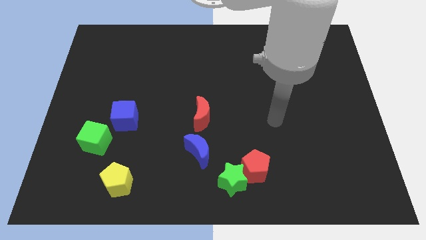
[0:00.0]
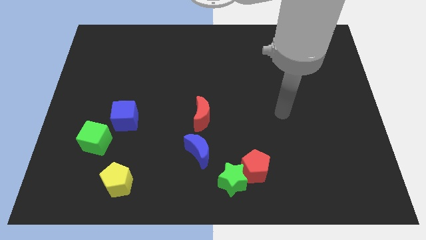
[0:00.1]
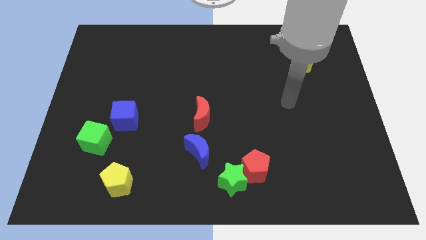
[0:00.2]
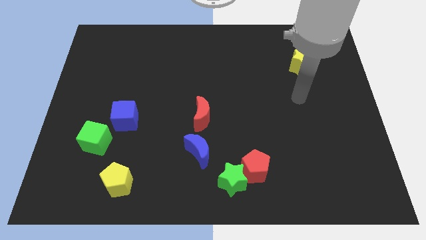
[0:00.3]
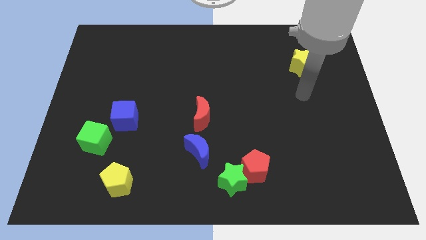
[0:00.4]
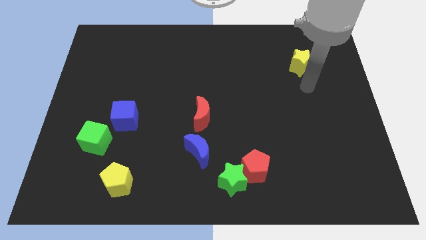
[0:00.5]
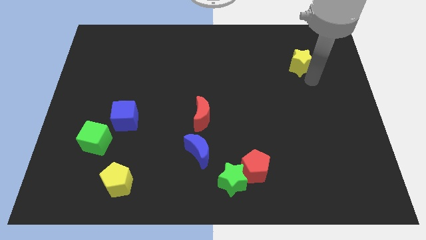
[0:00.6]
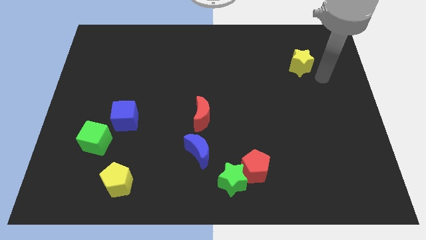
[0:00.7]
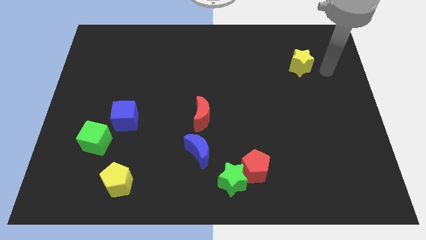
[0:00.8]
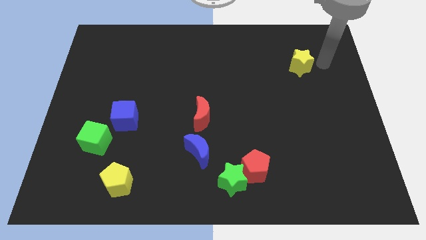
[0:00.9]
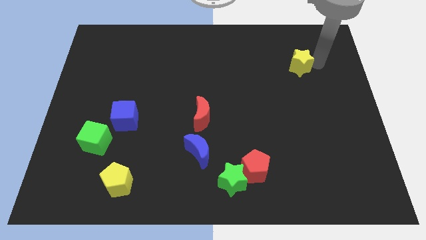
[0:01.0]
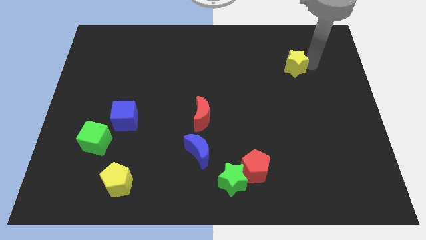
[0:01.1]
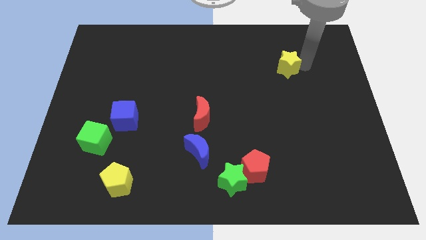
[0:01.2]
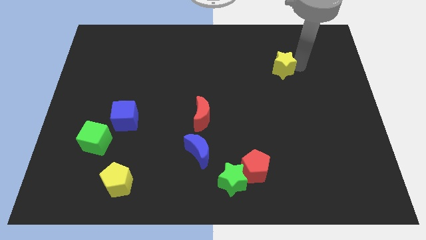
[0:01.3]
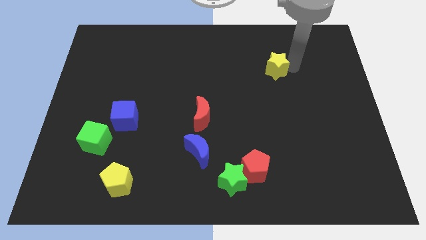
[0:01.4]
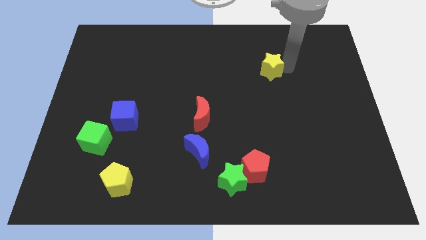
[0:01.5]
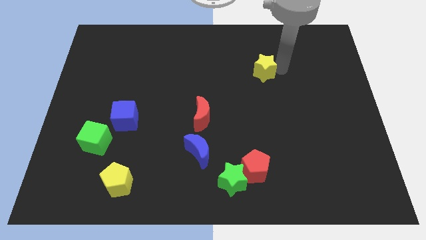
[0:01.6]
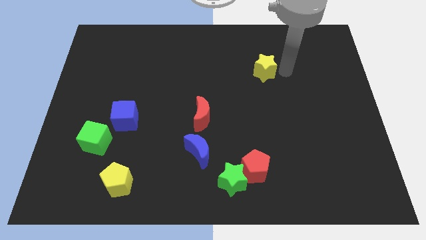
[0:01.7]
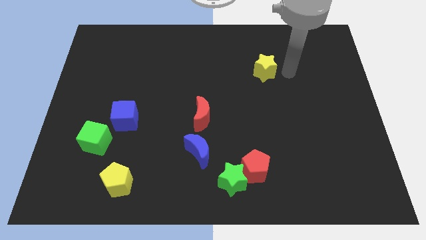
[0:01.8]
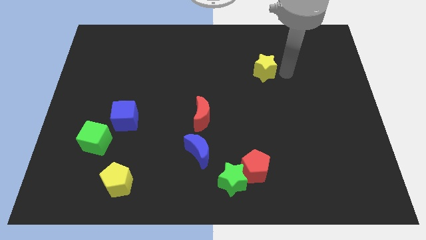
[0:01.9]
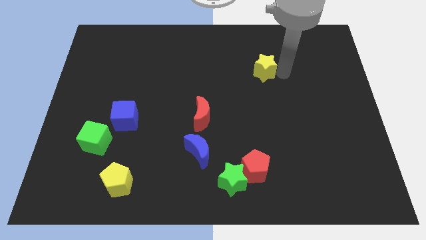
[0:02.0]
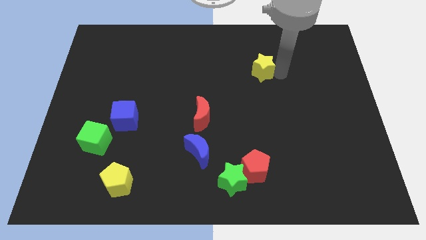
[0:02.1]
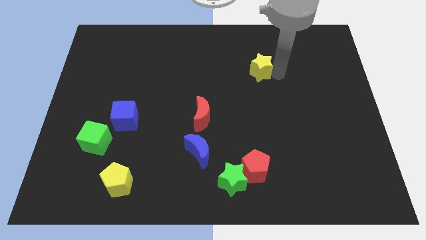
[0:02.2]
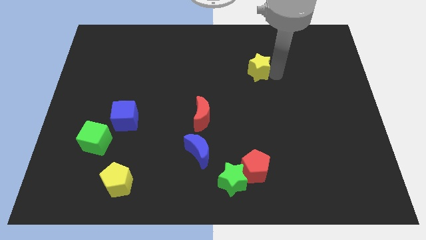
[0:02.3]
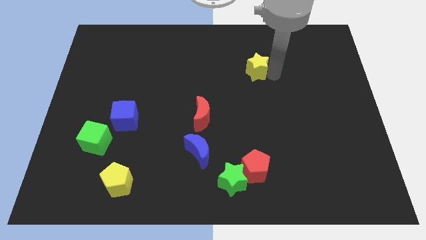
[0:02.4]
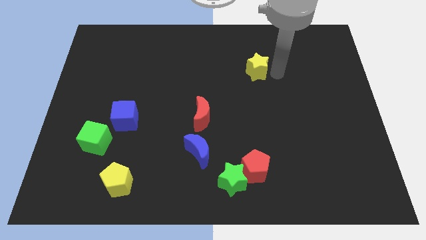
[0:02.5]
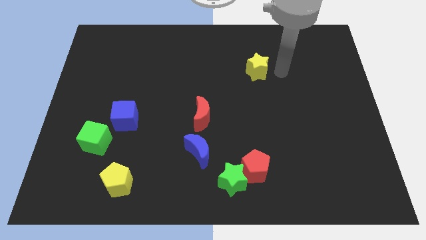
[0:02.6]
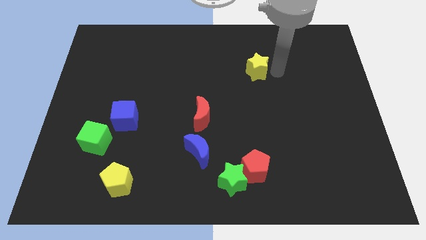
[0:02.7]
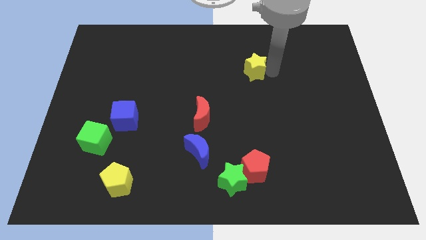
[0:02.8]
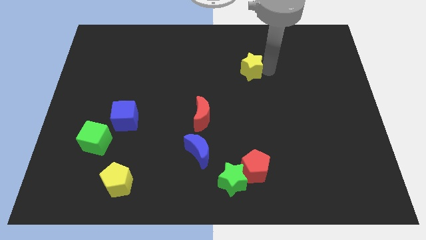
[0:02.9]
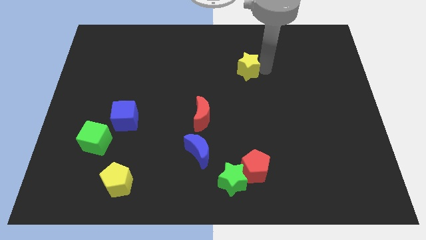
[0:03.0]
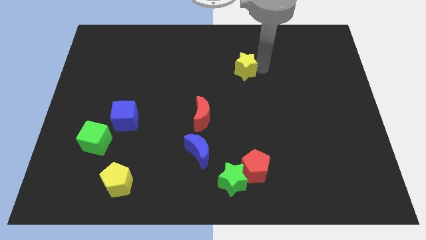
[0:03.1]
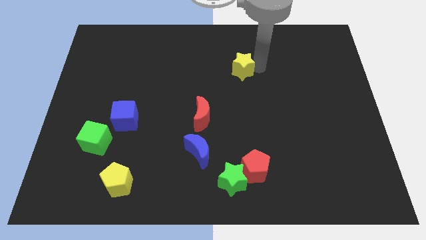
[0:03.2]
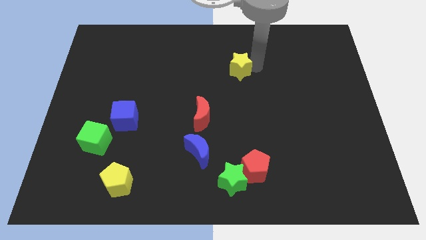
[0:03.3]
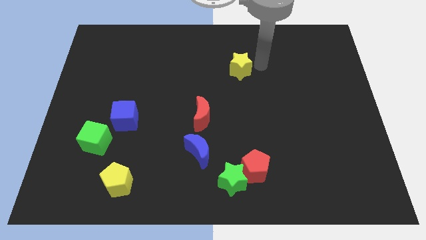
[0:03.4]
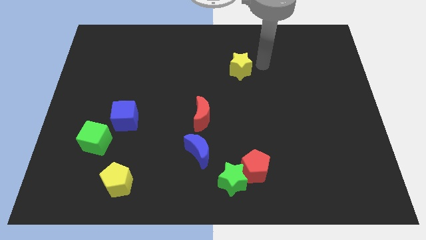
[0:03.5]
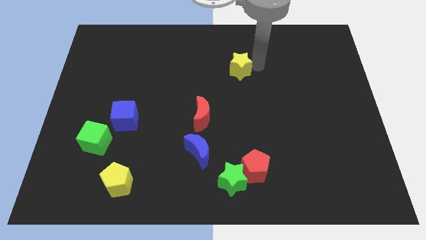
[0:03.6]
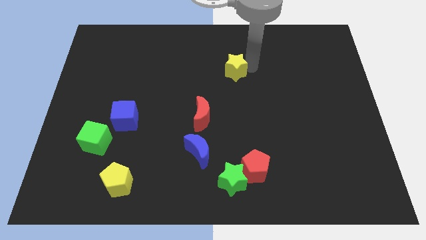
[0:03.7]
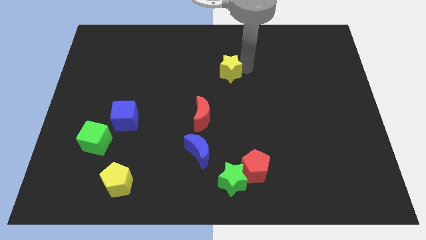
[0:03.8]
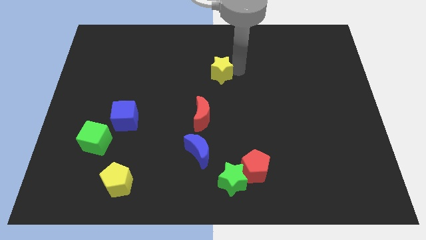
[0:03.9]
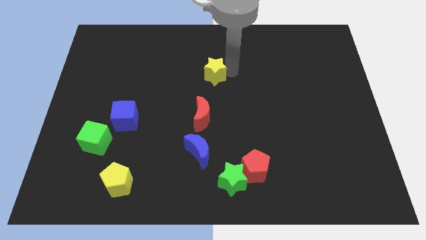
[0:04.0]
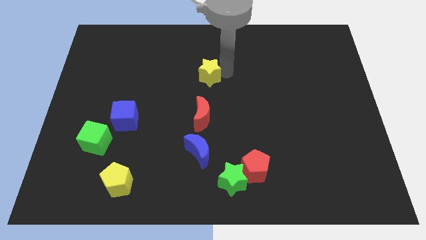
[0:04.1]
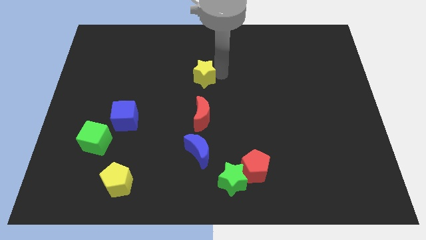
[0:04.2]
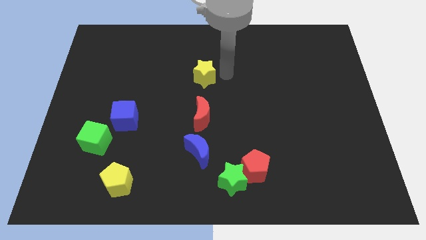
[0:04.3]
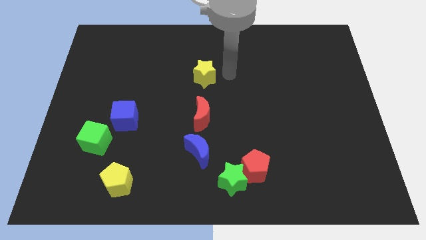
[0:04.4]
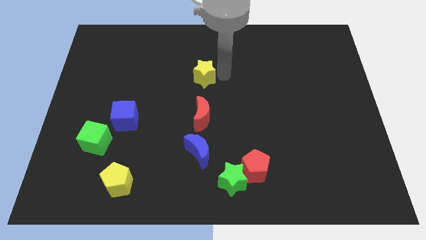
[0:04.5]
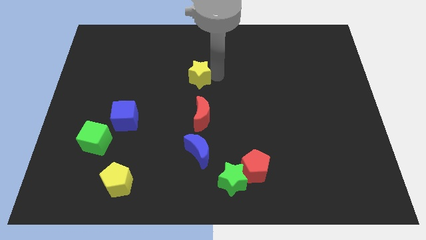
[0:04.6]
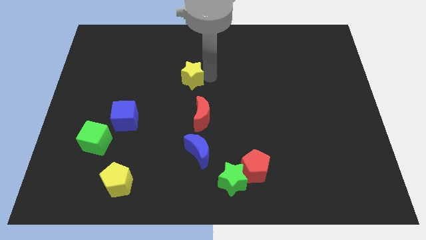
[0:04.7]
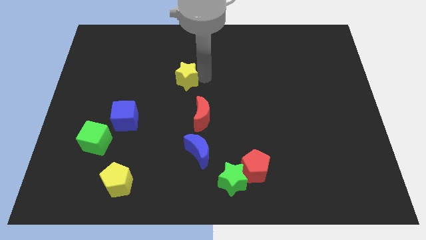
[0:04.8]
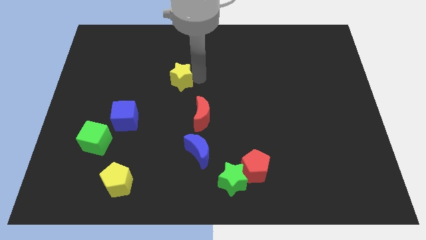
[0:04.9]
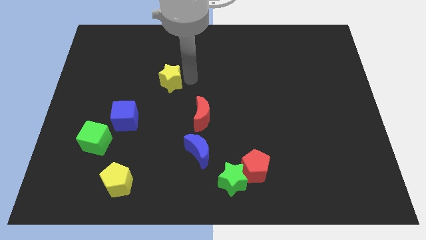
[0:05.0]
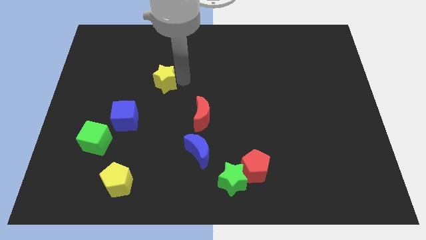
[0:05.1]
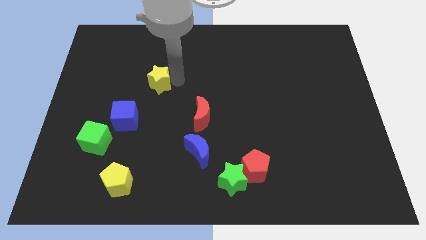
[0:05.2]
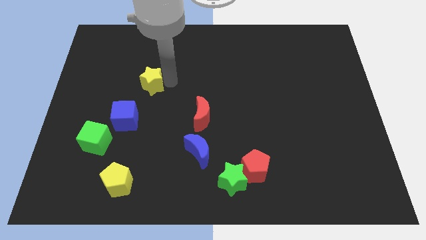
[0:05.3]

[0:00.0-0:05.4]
put the yellow star above the blue cube

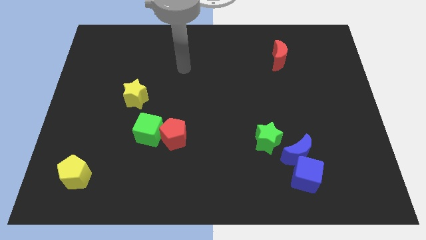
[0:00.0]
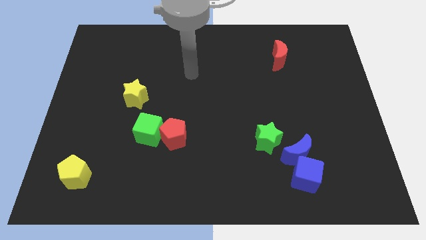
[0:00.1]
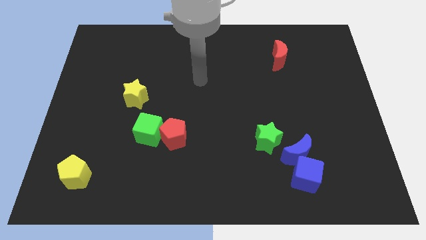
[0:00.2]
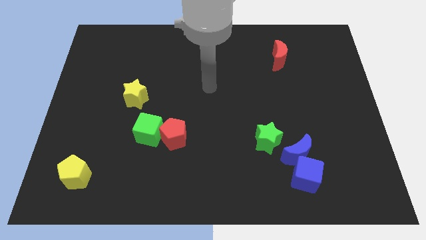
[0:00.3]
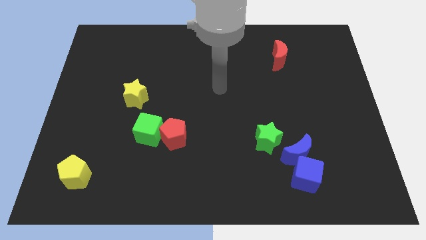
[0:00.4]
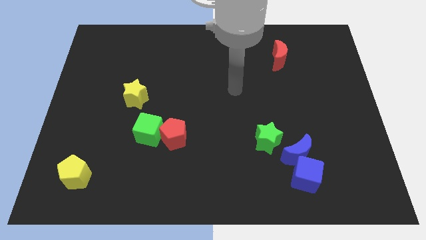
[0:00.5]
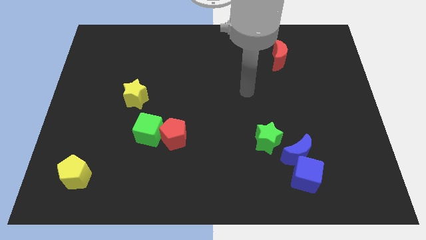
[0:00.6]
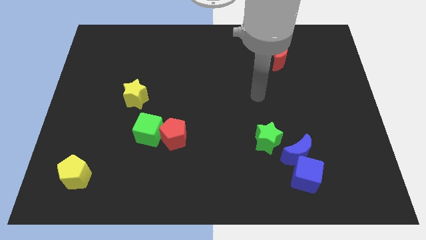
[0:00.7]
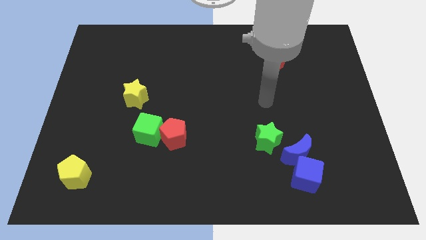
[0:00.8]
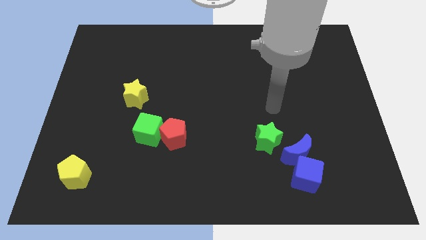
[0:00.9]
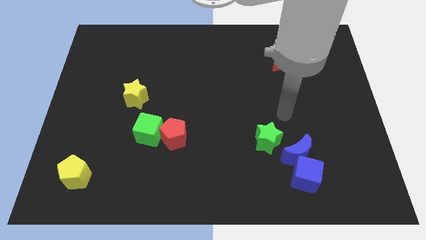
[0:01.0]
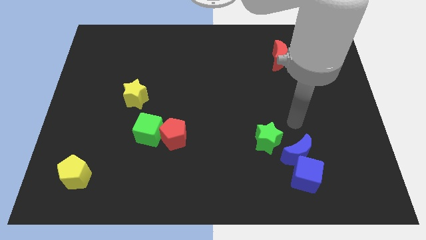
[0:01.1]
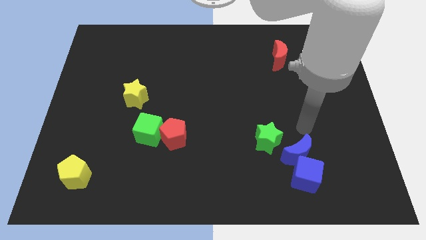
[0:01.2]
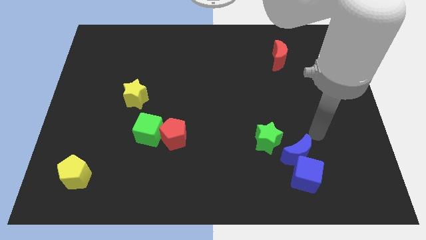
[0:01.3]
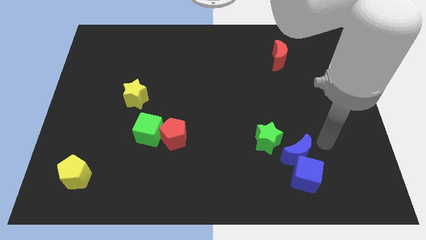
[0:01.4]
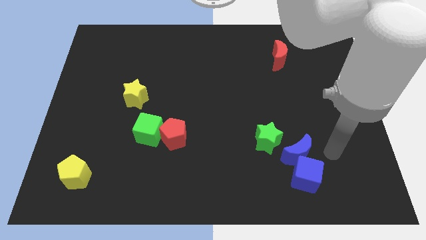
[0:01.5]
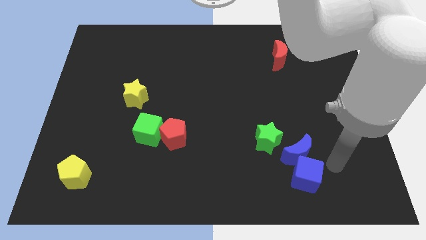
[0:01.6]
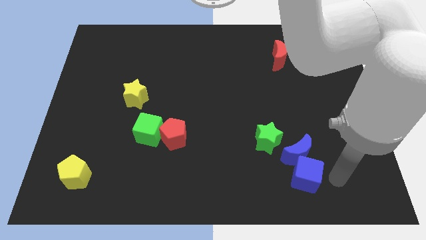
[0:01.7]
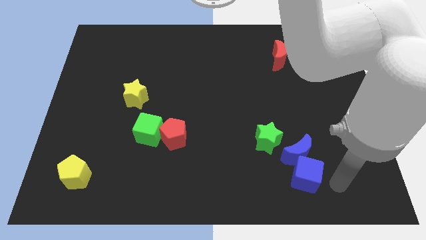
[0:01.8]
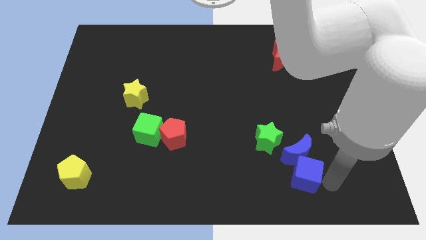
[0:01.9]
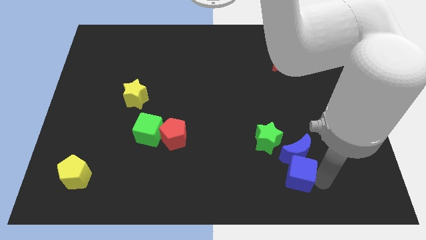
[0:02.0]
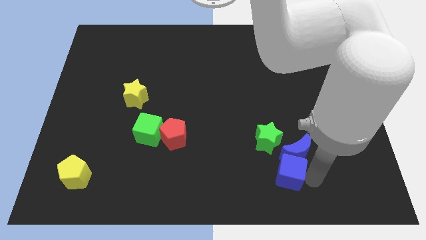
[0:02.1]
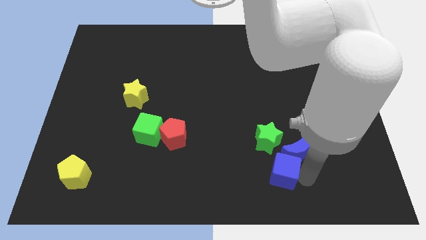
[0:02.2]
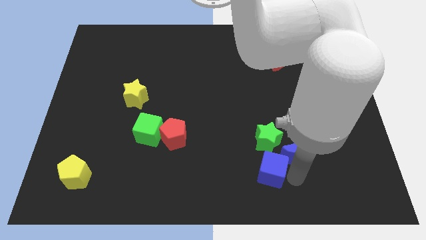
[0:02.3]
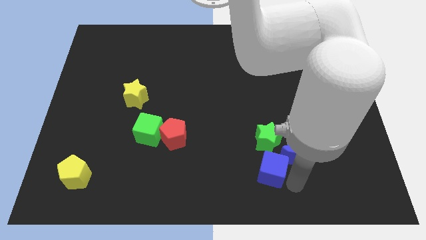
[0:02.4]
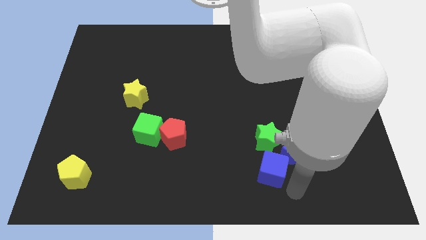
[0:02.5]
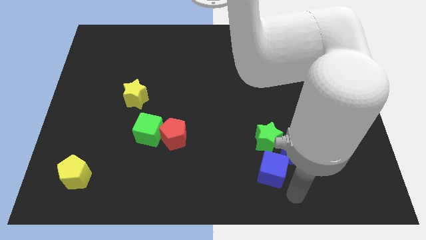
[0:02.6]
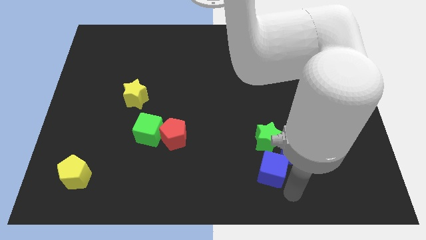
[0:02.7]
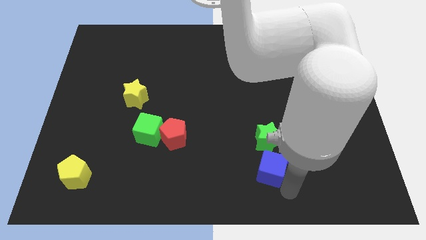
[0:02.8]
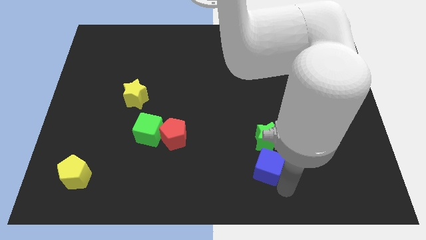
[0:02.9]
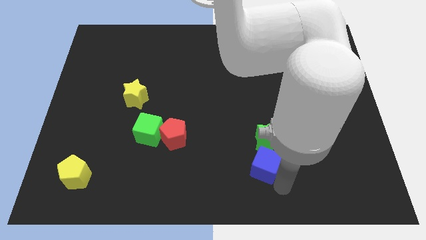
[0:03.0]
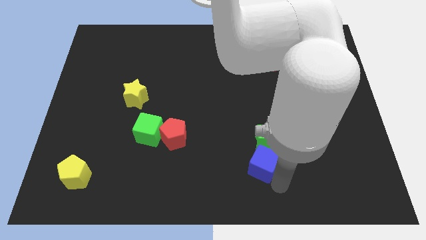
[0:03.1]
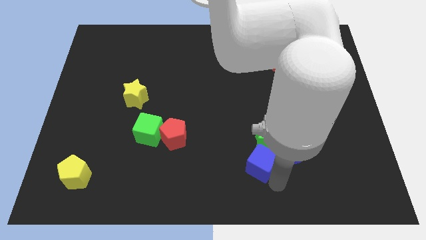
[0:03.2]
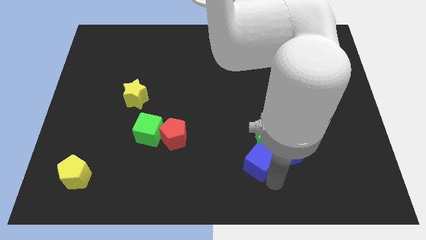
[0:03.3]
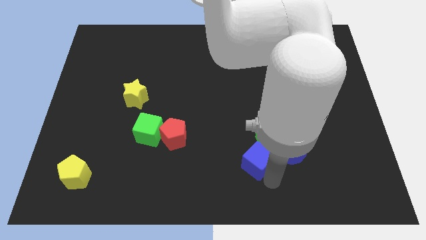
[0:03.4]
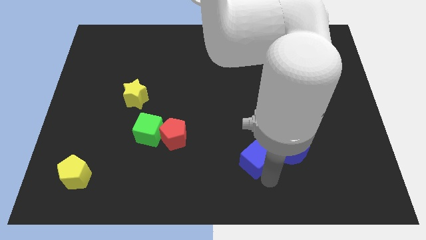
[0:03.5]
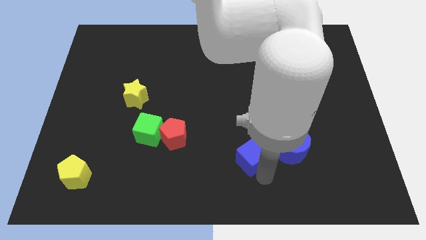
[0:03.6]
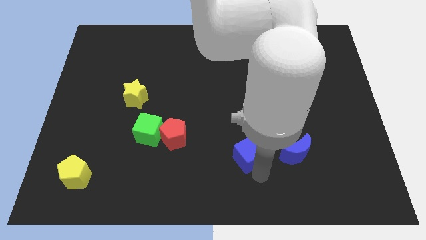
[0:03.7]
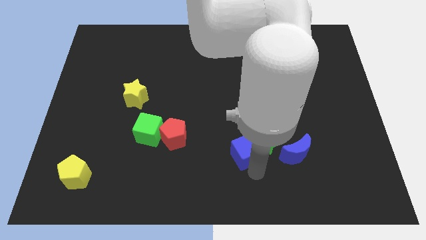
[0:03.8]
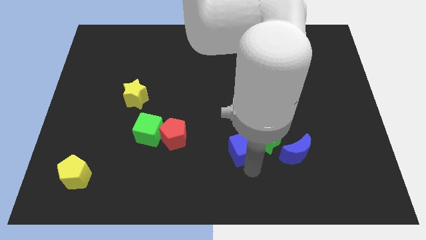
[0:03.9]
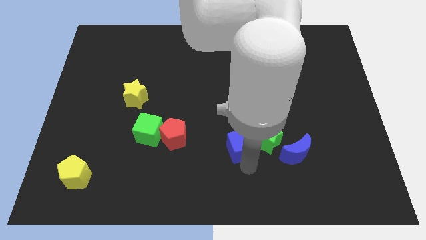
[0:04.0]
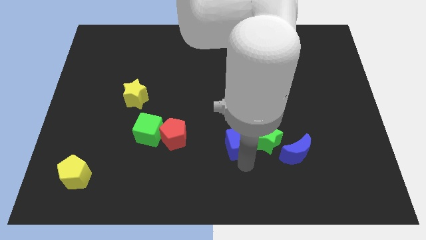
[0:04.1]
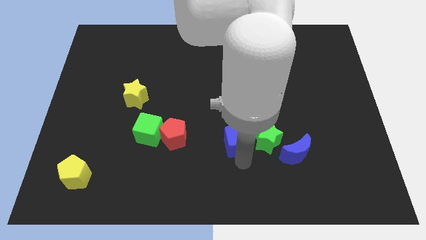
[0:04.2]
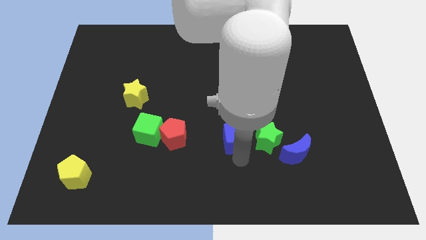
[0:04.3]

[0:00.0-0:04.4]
move the blue cube to the top left side of the green star
